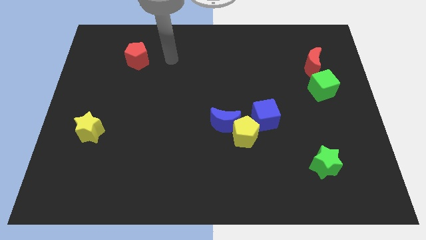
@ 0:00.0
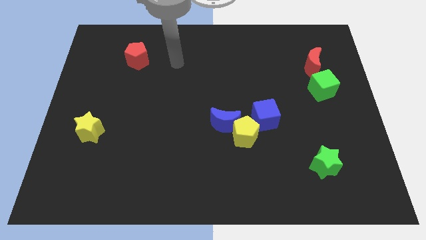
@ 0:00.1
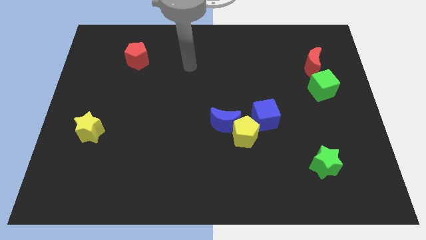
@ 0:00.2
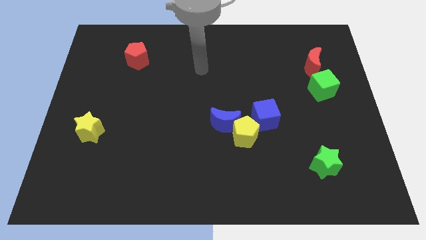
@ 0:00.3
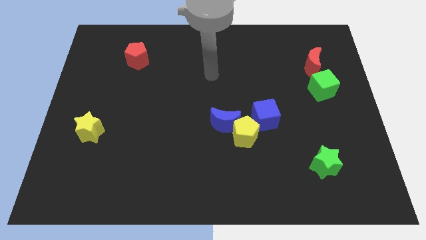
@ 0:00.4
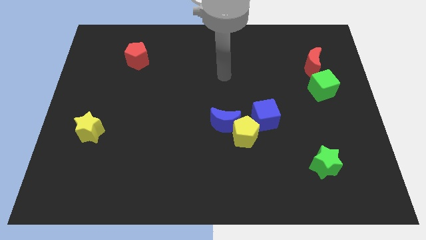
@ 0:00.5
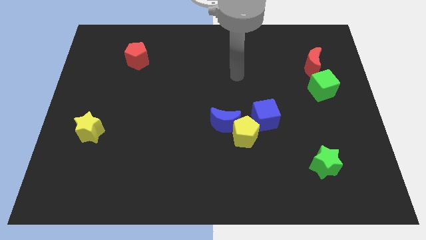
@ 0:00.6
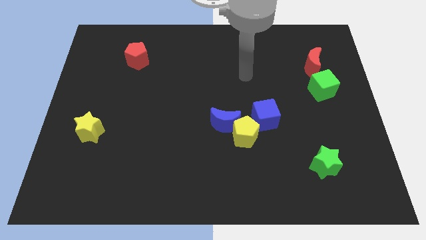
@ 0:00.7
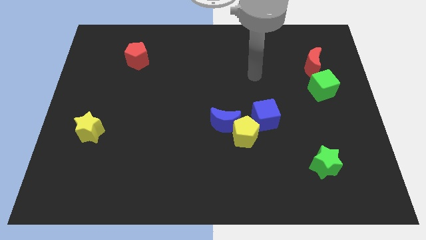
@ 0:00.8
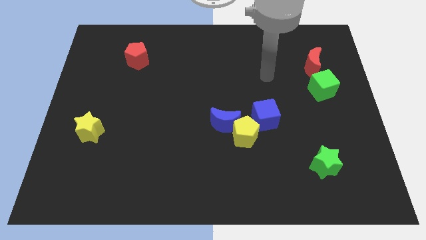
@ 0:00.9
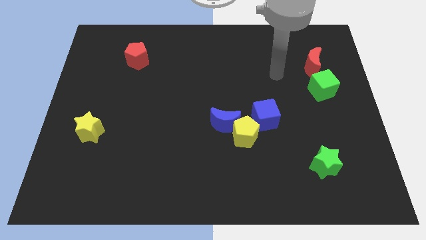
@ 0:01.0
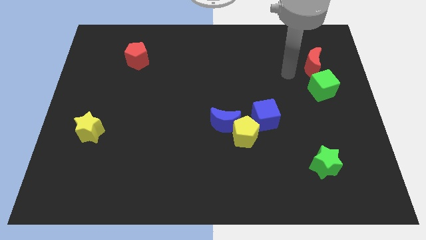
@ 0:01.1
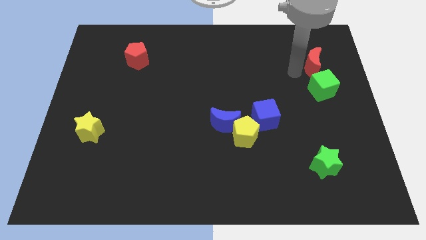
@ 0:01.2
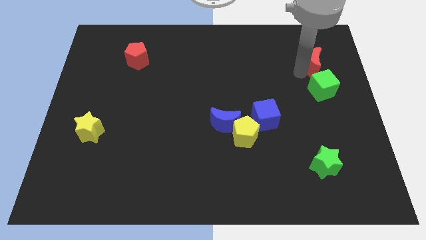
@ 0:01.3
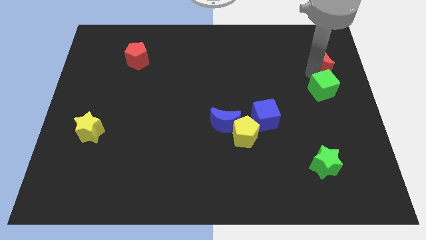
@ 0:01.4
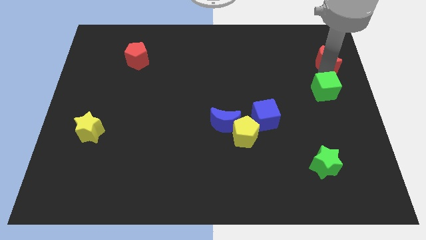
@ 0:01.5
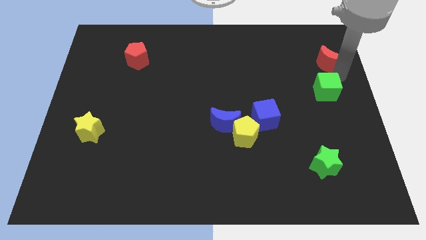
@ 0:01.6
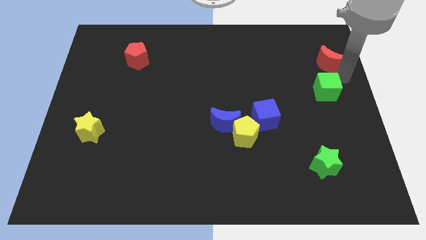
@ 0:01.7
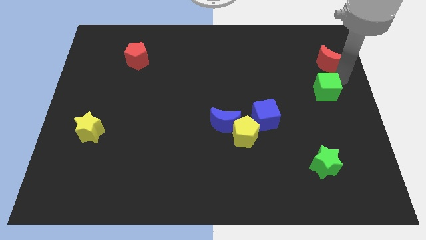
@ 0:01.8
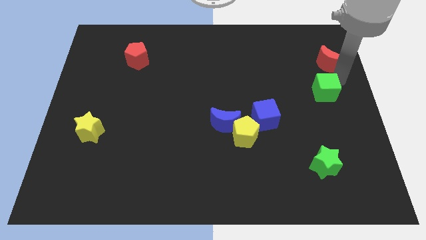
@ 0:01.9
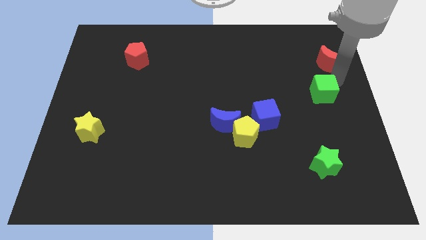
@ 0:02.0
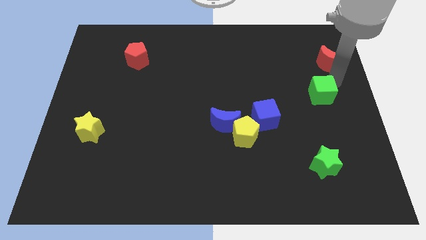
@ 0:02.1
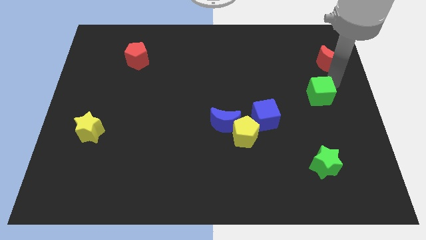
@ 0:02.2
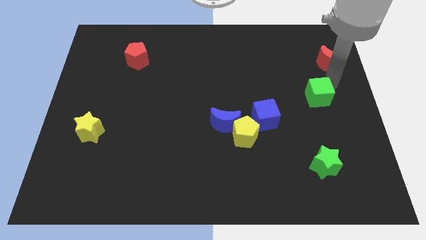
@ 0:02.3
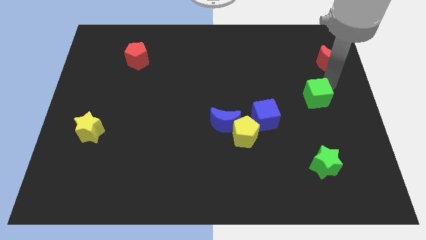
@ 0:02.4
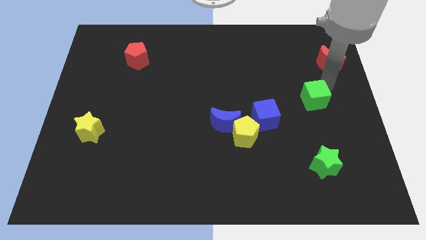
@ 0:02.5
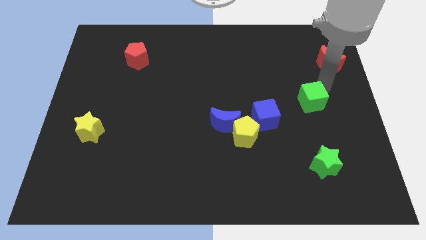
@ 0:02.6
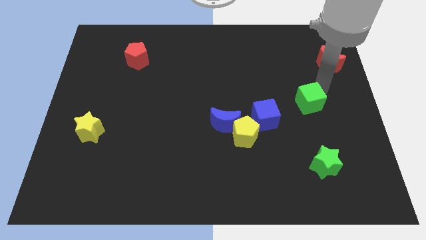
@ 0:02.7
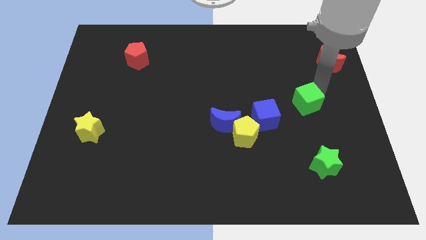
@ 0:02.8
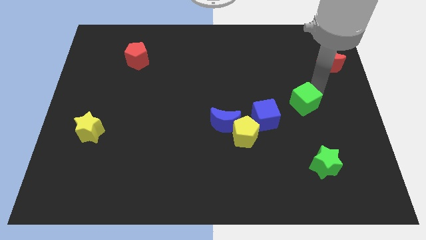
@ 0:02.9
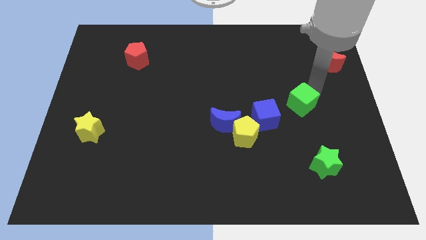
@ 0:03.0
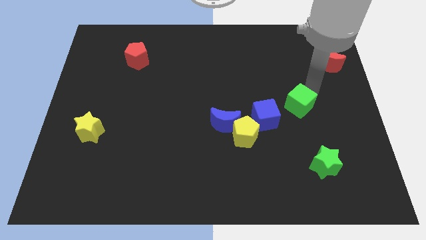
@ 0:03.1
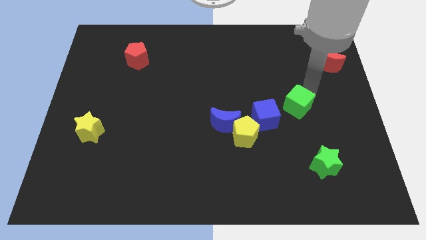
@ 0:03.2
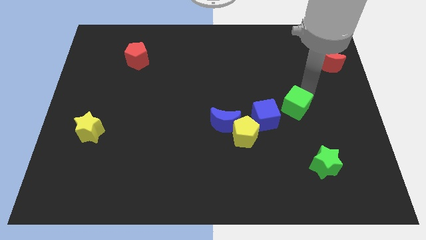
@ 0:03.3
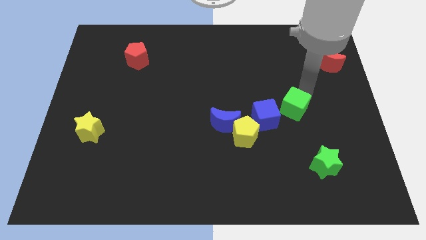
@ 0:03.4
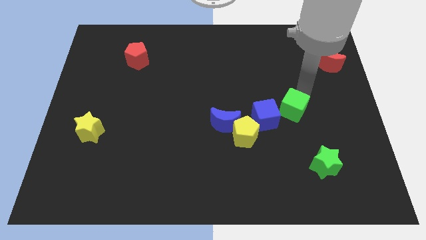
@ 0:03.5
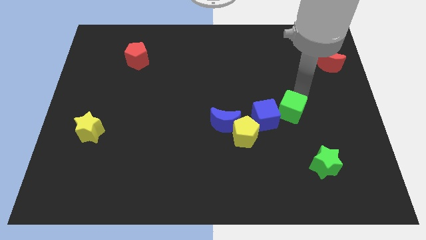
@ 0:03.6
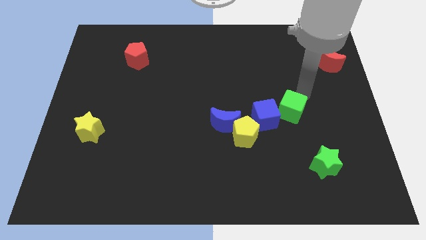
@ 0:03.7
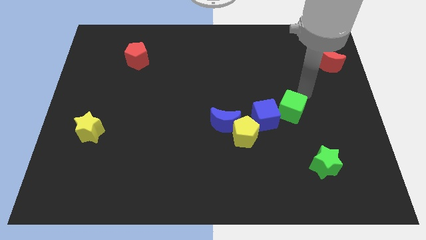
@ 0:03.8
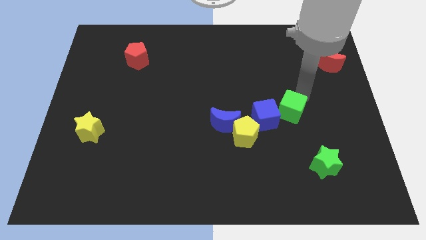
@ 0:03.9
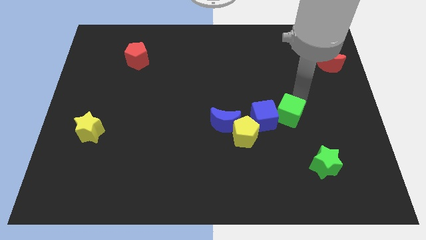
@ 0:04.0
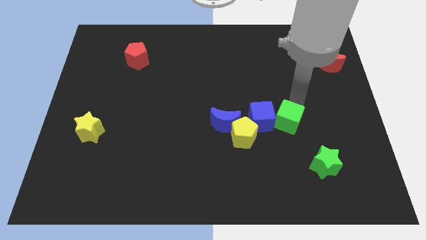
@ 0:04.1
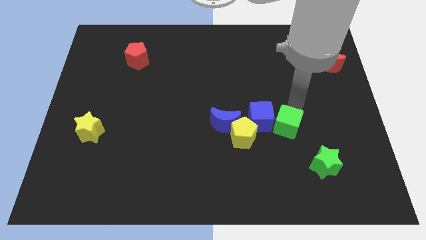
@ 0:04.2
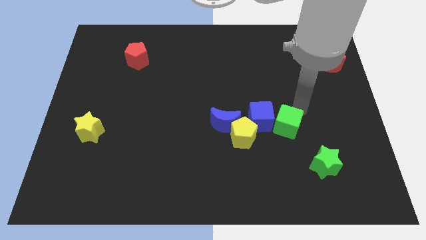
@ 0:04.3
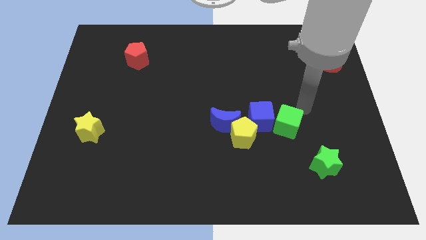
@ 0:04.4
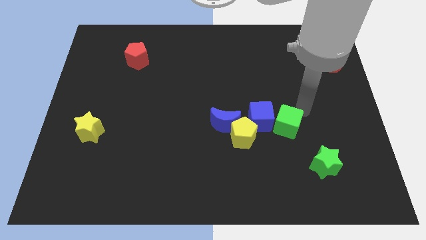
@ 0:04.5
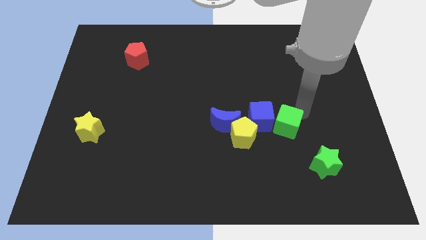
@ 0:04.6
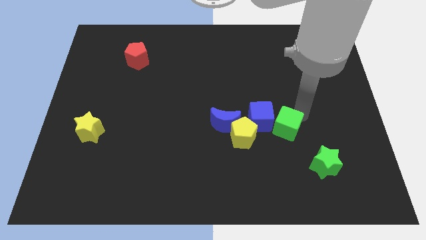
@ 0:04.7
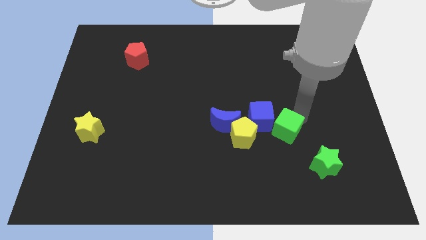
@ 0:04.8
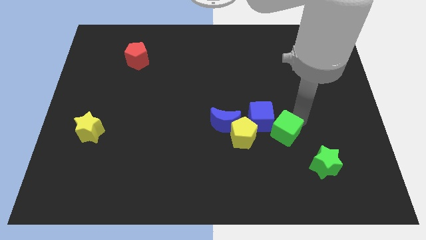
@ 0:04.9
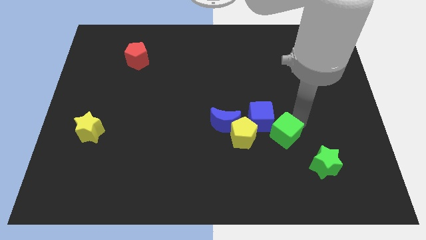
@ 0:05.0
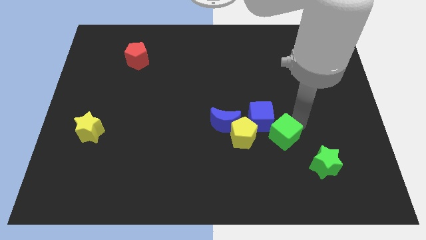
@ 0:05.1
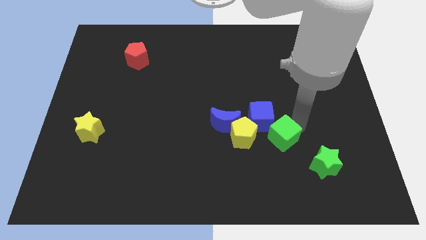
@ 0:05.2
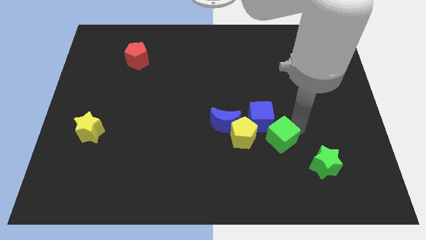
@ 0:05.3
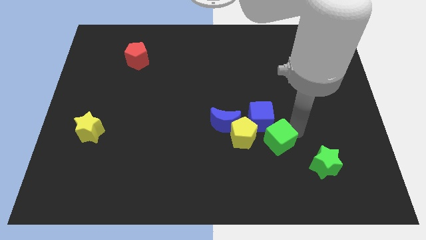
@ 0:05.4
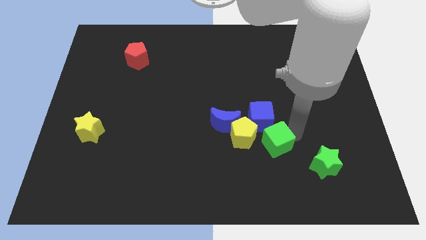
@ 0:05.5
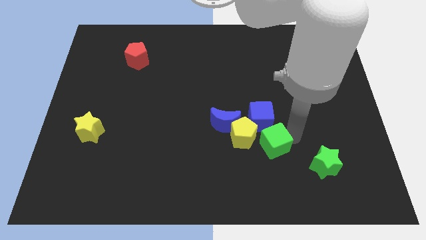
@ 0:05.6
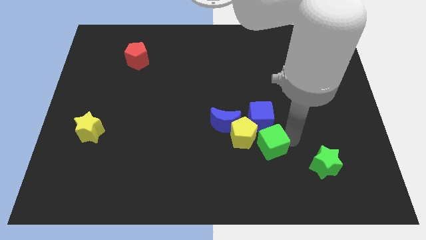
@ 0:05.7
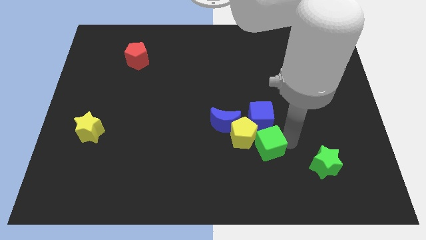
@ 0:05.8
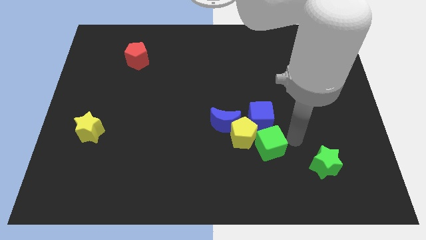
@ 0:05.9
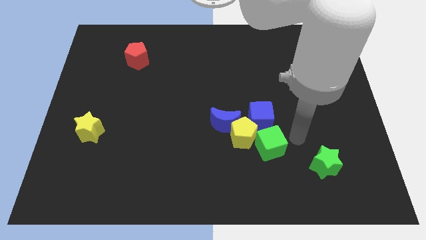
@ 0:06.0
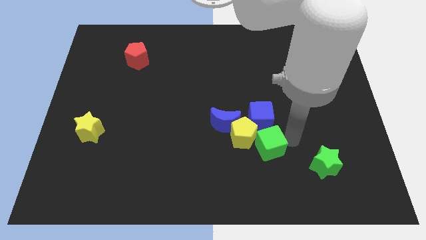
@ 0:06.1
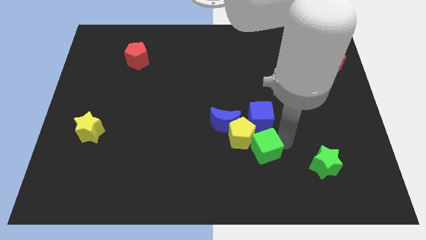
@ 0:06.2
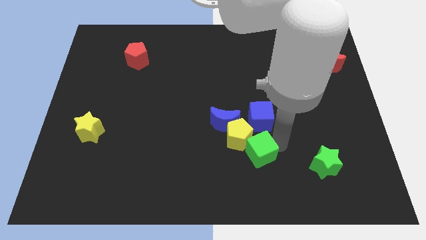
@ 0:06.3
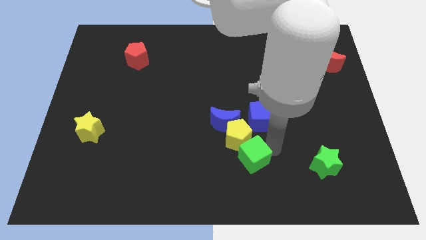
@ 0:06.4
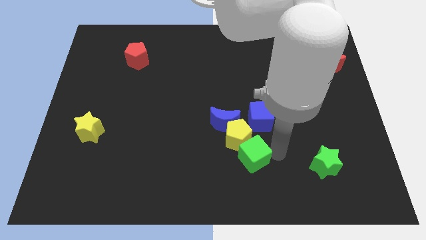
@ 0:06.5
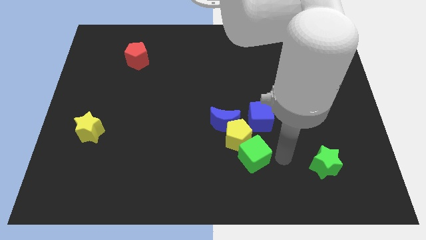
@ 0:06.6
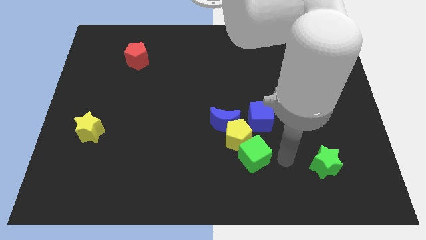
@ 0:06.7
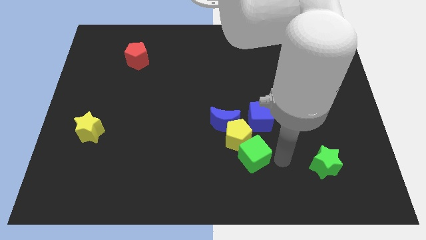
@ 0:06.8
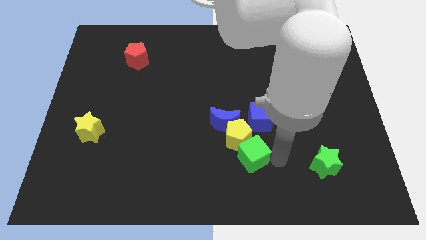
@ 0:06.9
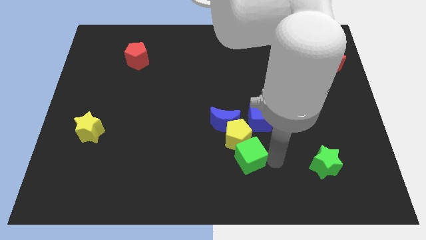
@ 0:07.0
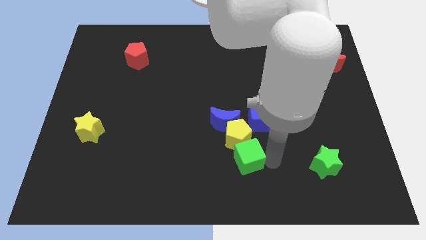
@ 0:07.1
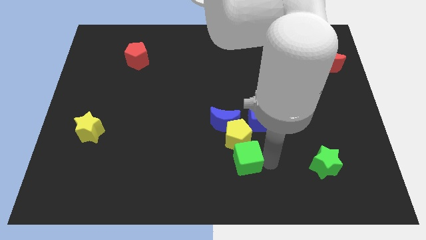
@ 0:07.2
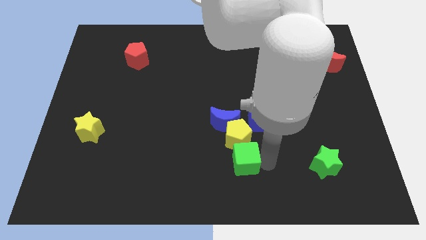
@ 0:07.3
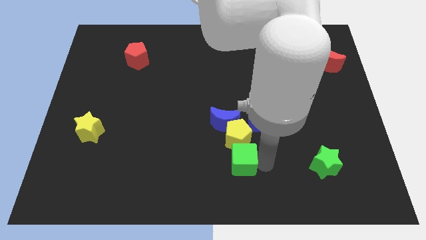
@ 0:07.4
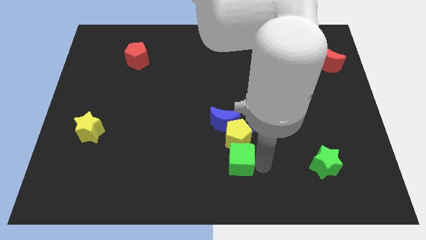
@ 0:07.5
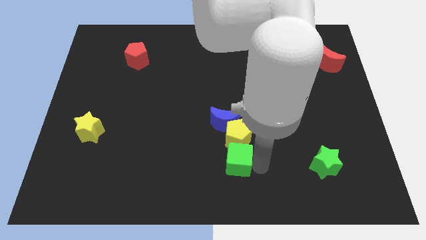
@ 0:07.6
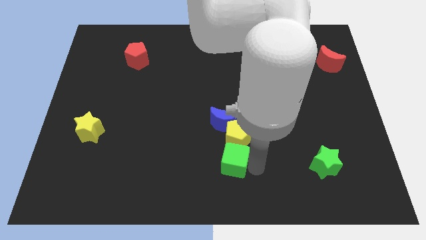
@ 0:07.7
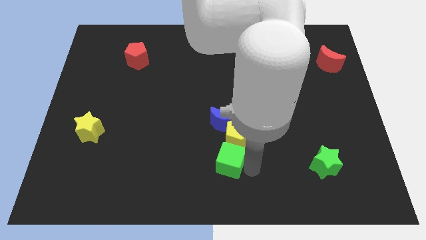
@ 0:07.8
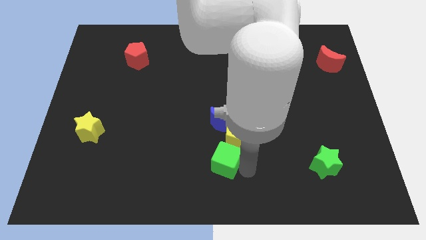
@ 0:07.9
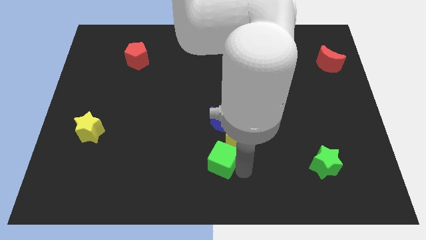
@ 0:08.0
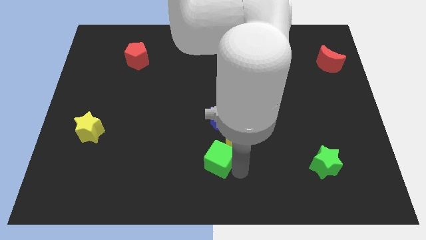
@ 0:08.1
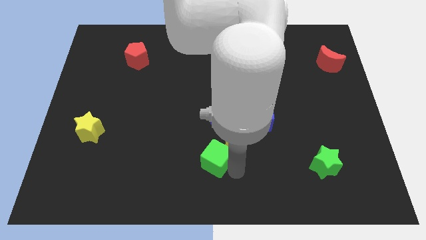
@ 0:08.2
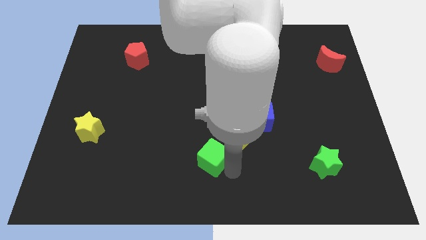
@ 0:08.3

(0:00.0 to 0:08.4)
put the green cube diagonally down and to the left of the blue moon
